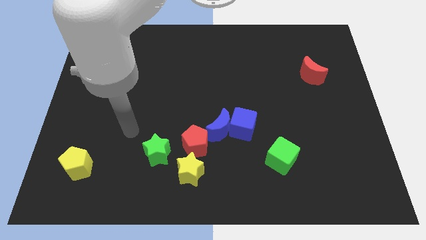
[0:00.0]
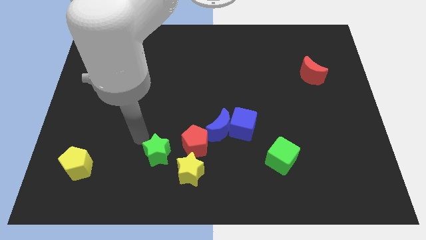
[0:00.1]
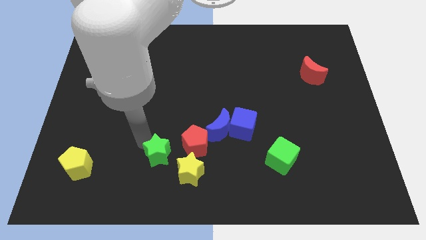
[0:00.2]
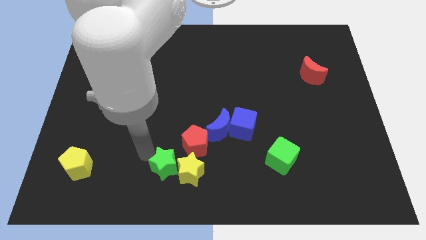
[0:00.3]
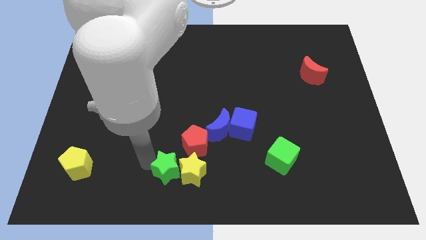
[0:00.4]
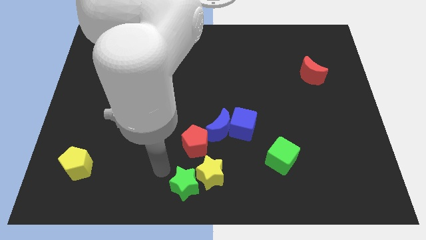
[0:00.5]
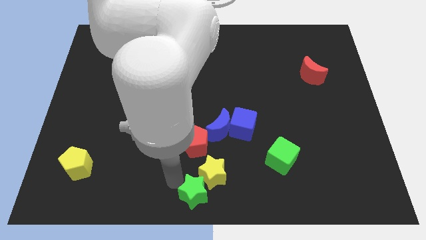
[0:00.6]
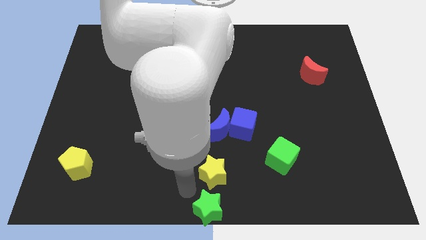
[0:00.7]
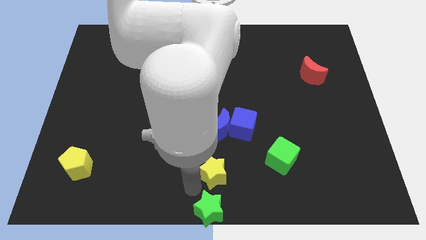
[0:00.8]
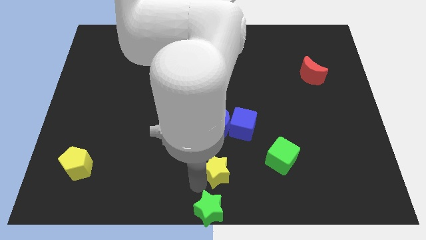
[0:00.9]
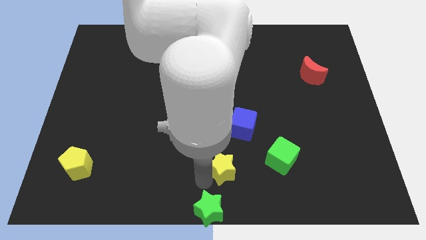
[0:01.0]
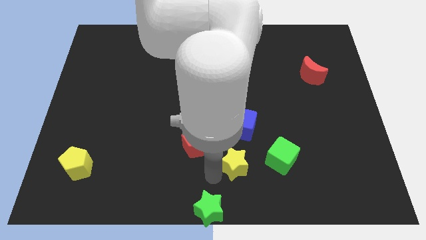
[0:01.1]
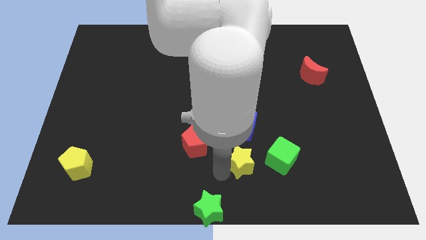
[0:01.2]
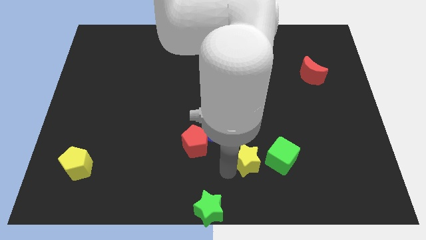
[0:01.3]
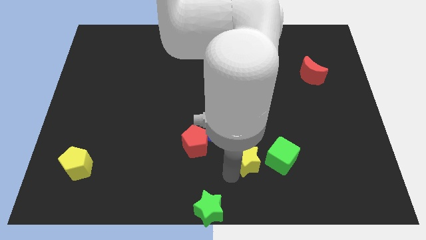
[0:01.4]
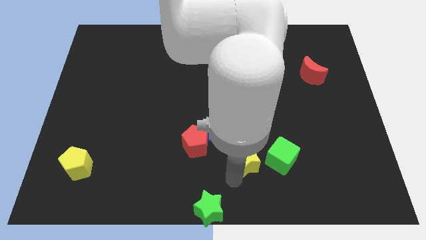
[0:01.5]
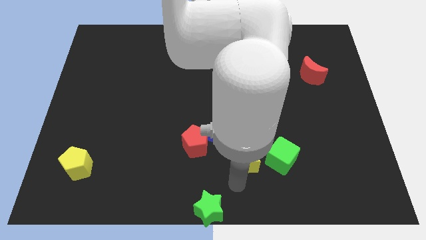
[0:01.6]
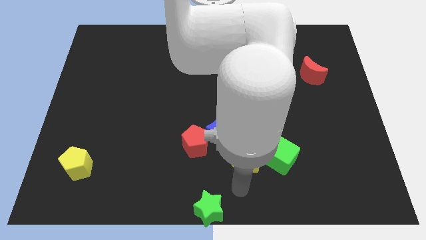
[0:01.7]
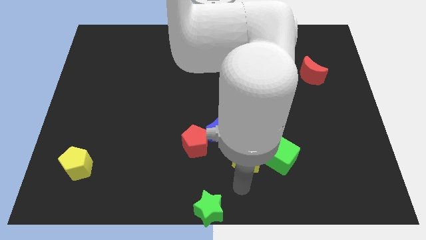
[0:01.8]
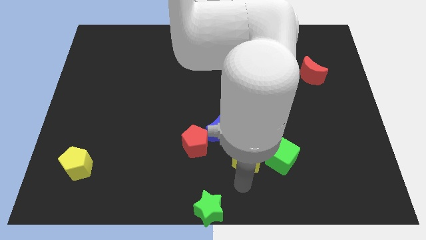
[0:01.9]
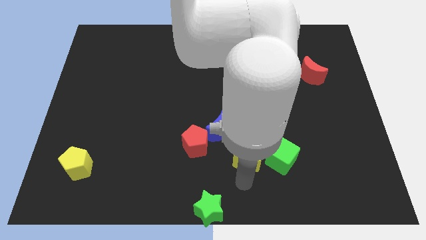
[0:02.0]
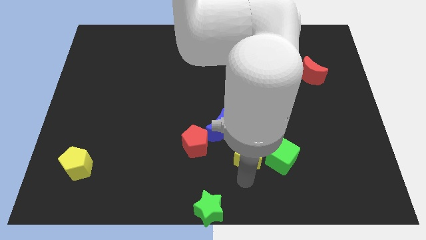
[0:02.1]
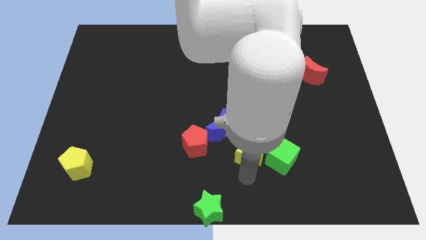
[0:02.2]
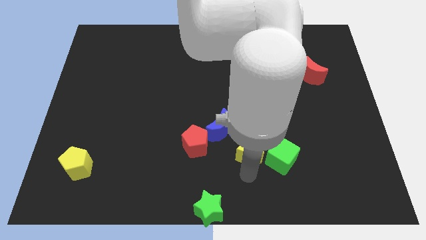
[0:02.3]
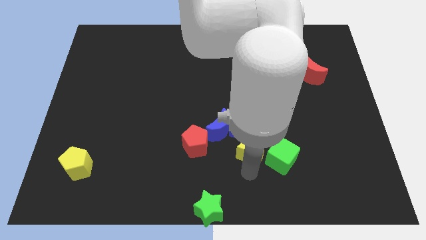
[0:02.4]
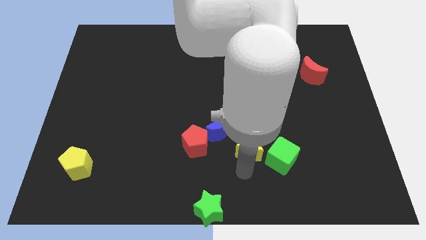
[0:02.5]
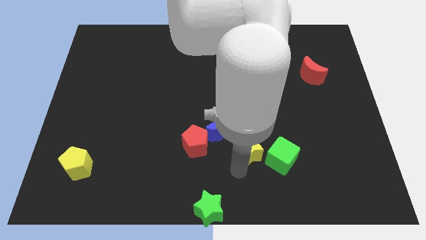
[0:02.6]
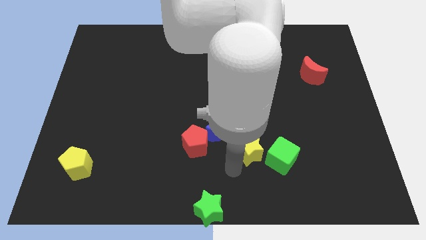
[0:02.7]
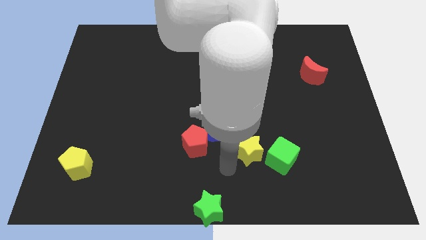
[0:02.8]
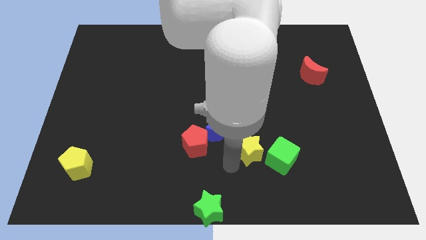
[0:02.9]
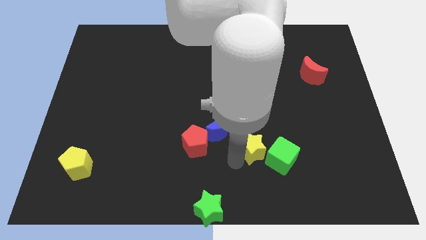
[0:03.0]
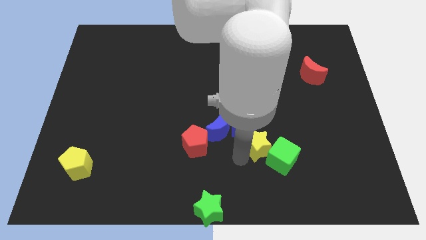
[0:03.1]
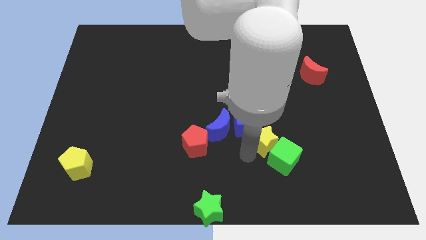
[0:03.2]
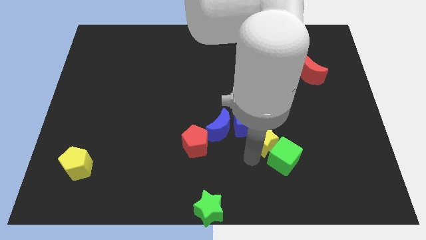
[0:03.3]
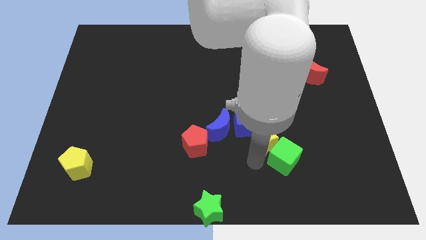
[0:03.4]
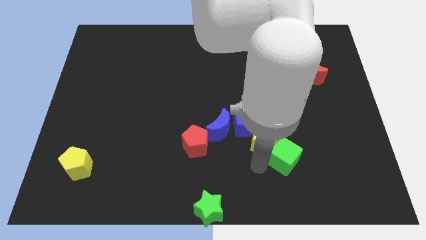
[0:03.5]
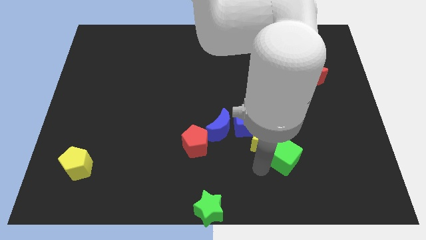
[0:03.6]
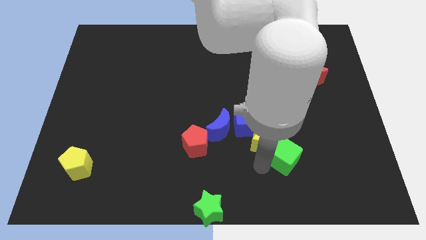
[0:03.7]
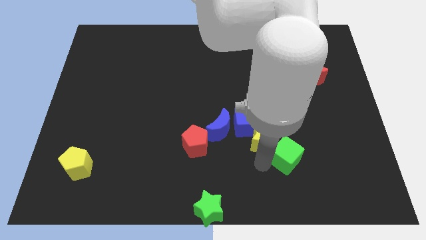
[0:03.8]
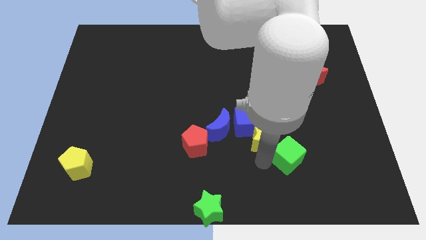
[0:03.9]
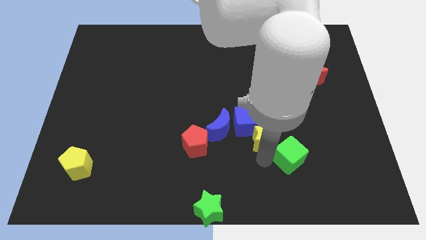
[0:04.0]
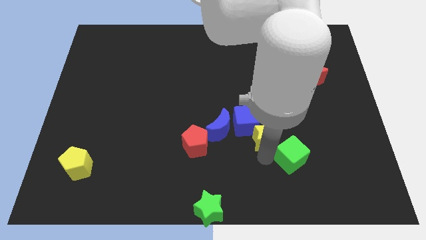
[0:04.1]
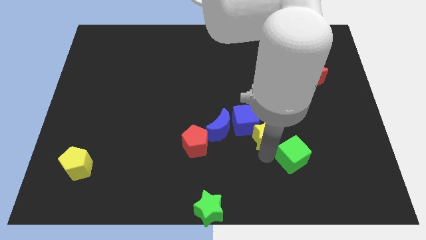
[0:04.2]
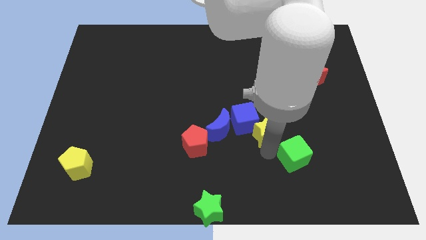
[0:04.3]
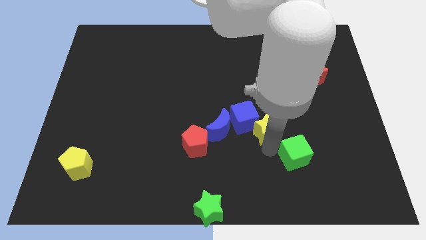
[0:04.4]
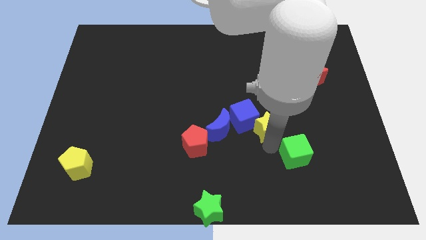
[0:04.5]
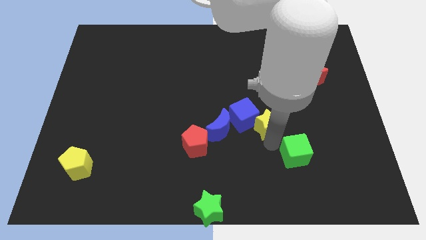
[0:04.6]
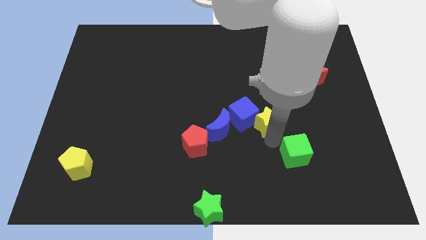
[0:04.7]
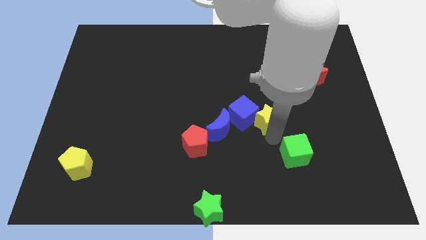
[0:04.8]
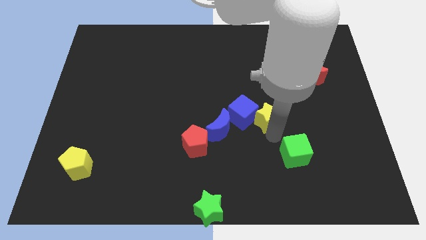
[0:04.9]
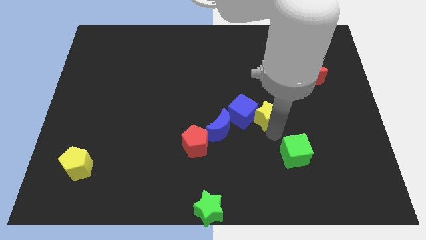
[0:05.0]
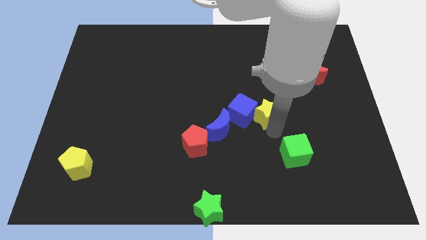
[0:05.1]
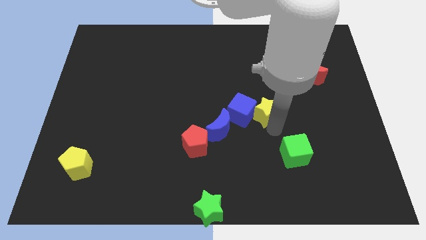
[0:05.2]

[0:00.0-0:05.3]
push the yellow star to the center of the board
